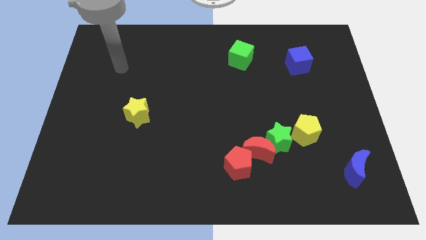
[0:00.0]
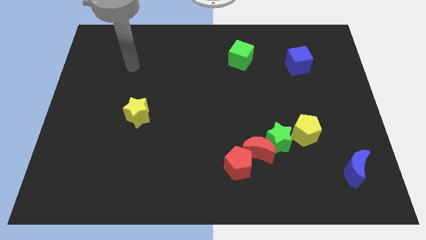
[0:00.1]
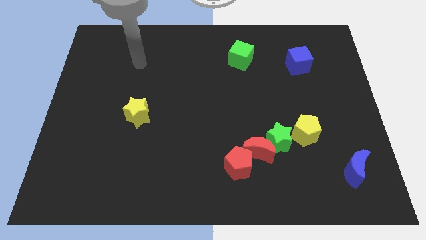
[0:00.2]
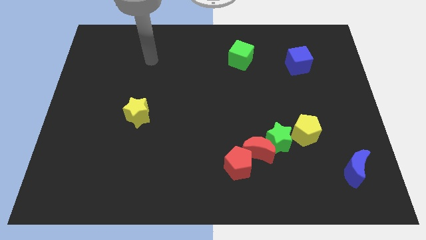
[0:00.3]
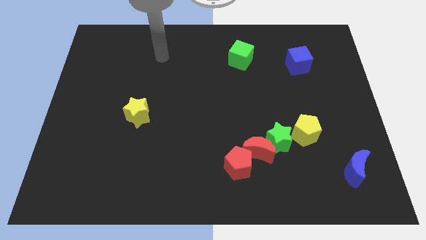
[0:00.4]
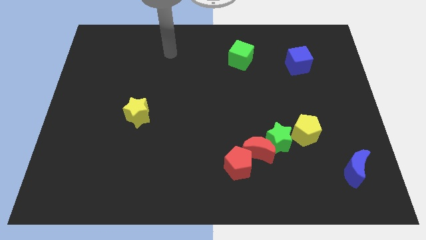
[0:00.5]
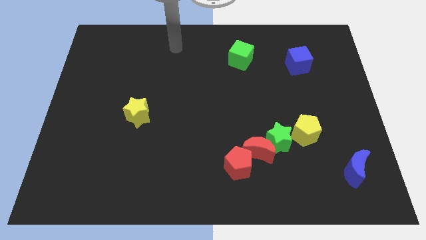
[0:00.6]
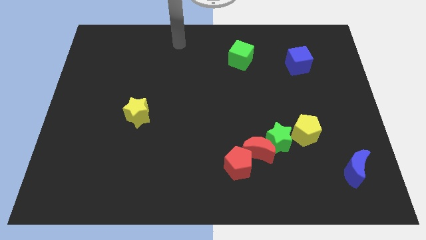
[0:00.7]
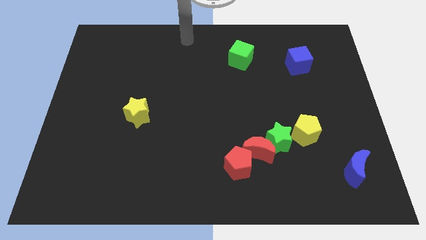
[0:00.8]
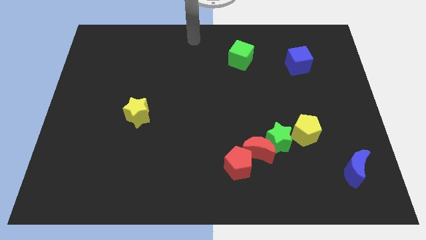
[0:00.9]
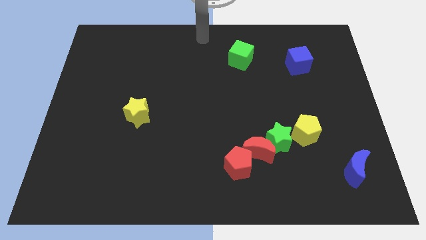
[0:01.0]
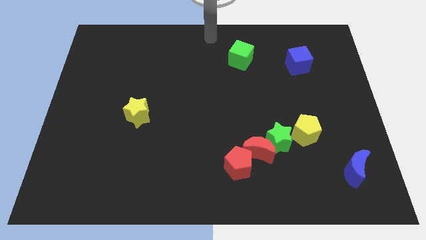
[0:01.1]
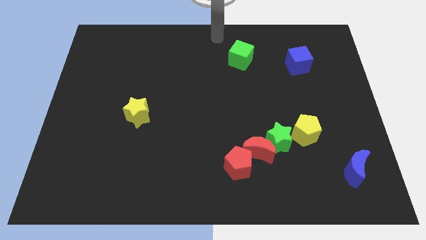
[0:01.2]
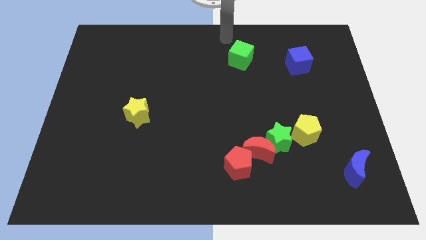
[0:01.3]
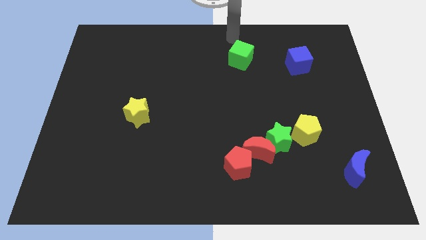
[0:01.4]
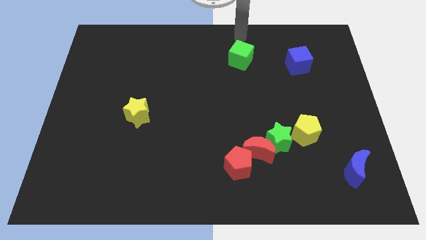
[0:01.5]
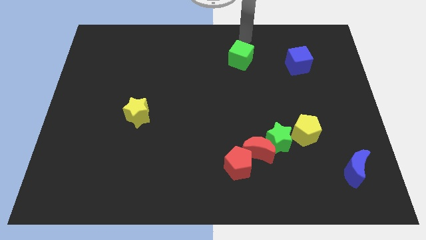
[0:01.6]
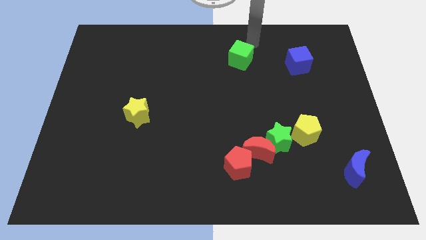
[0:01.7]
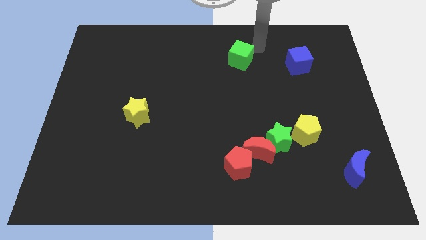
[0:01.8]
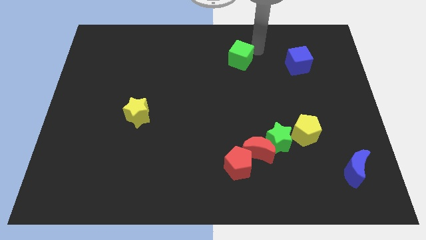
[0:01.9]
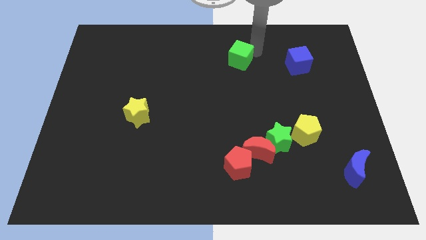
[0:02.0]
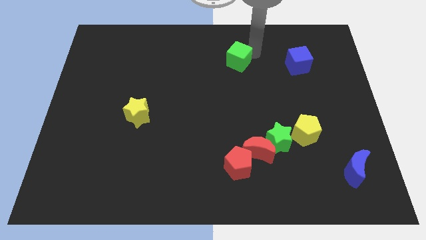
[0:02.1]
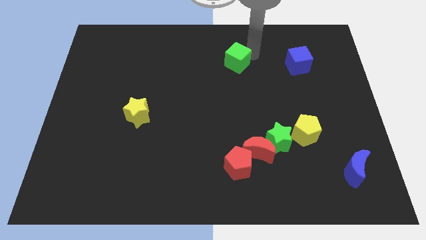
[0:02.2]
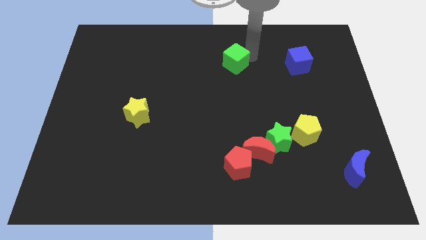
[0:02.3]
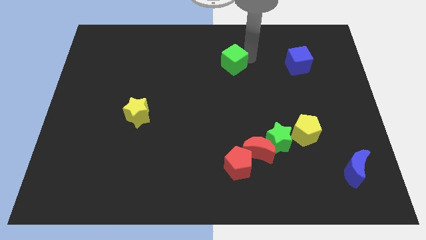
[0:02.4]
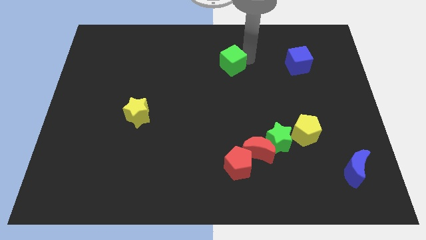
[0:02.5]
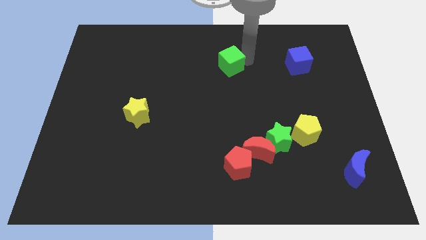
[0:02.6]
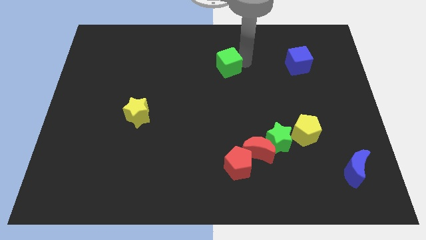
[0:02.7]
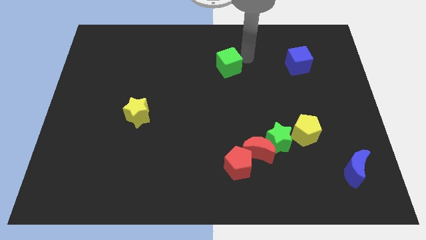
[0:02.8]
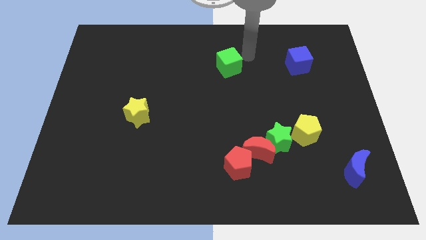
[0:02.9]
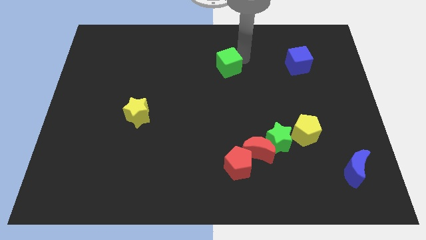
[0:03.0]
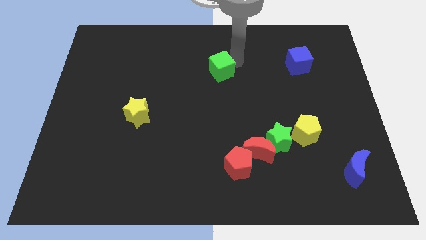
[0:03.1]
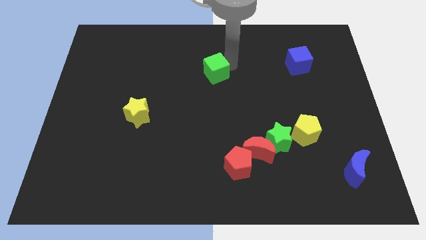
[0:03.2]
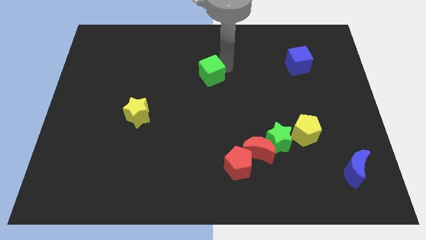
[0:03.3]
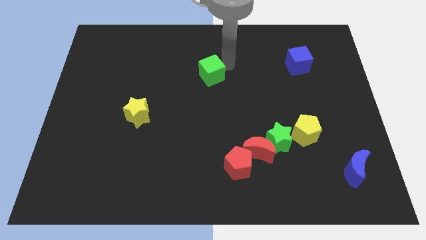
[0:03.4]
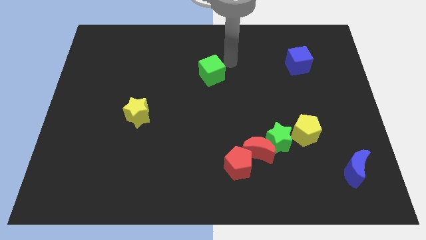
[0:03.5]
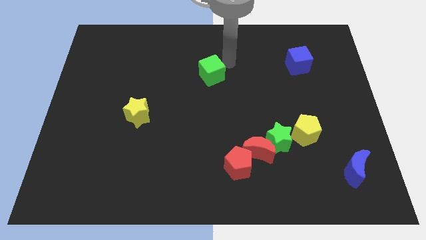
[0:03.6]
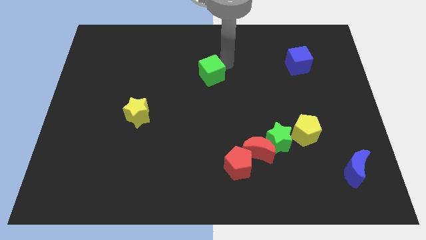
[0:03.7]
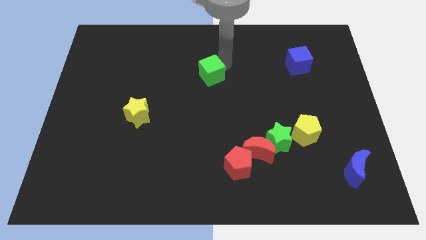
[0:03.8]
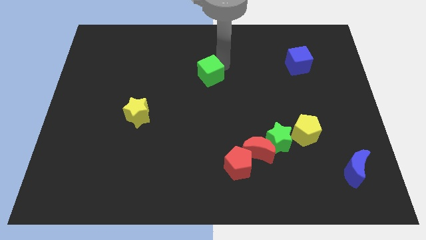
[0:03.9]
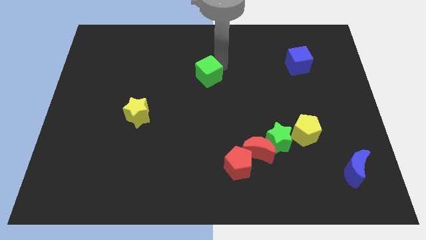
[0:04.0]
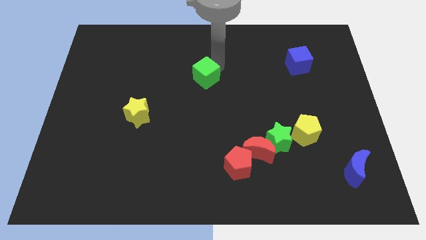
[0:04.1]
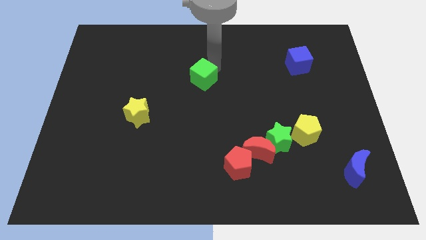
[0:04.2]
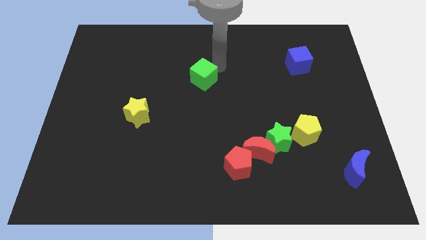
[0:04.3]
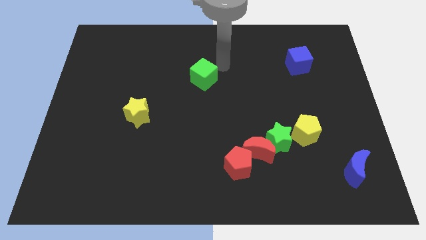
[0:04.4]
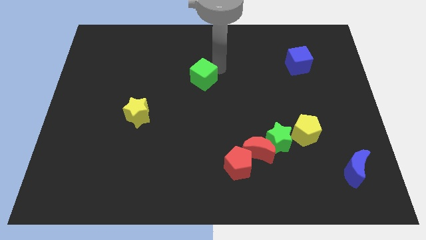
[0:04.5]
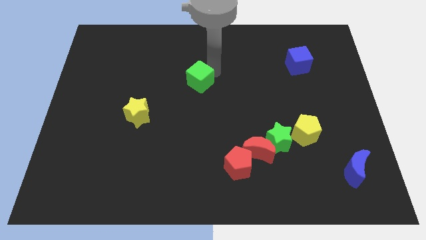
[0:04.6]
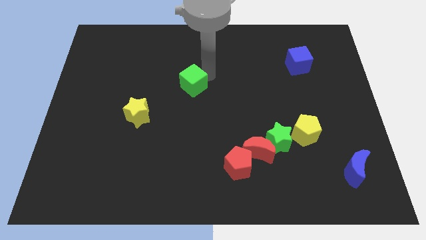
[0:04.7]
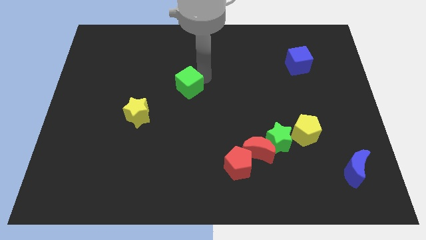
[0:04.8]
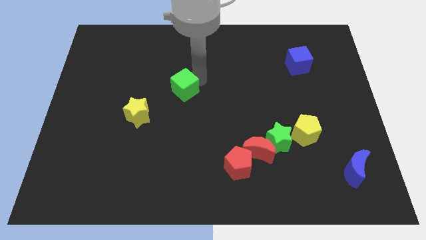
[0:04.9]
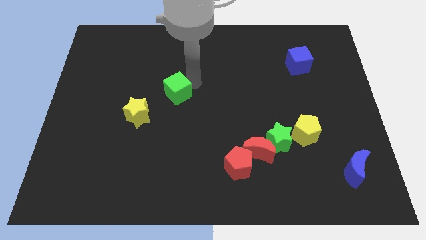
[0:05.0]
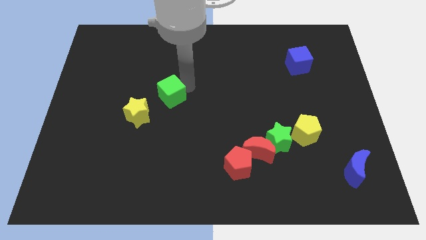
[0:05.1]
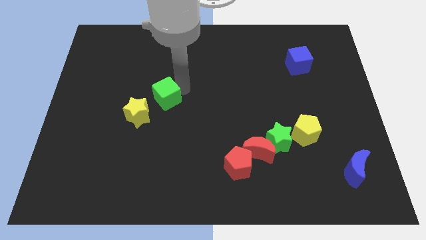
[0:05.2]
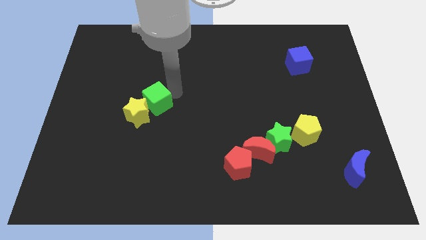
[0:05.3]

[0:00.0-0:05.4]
push the green cube close to the yellow star

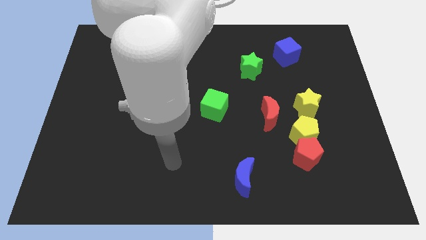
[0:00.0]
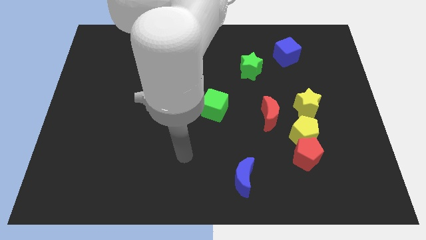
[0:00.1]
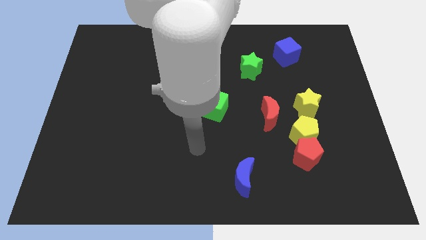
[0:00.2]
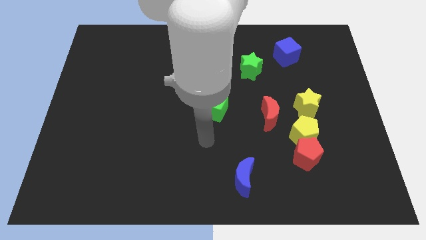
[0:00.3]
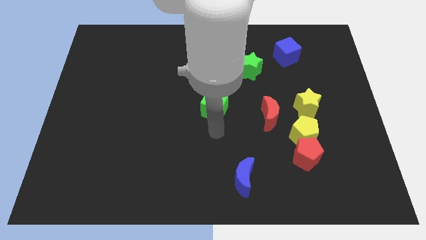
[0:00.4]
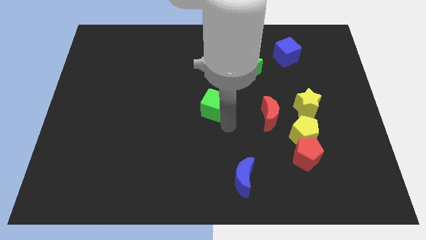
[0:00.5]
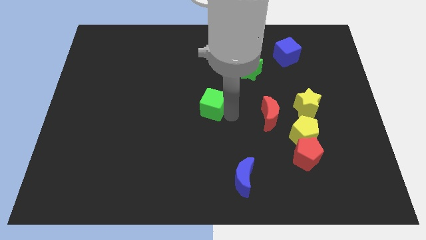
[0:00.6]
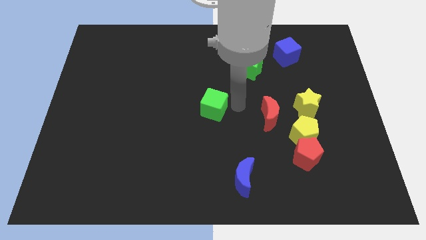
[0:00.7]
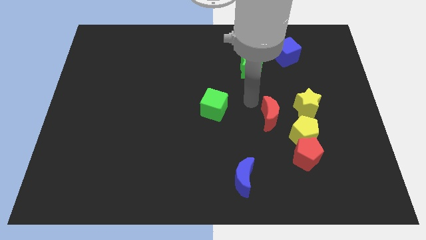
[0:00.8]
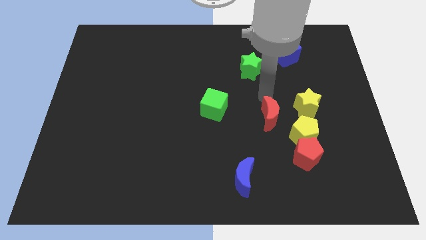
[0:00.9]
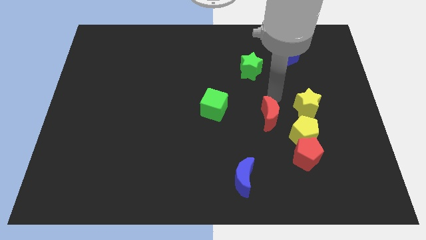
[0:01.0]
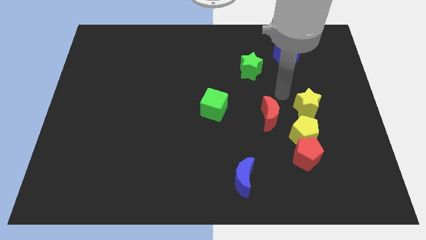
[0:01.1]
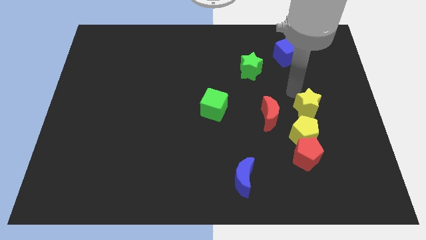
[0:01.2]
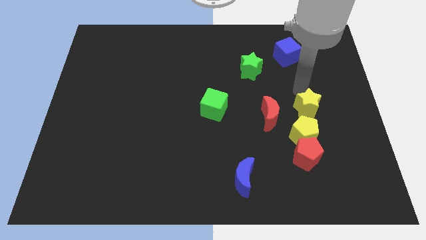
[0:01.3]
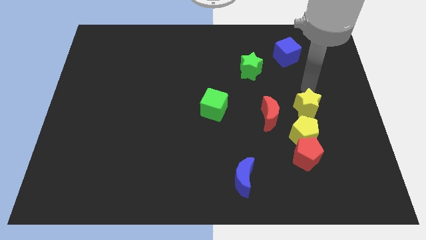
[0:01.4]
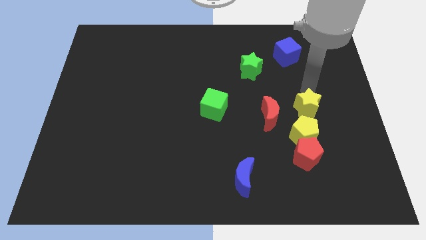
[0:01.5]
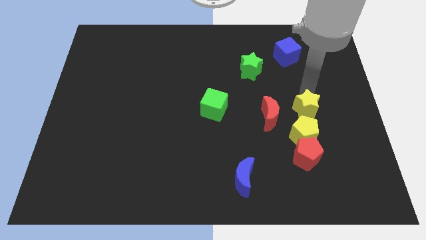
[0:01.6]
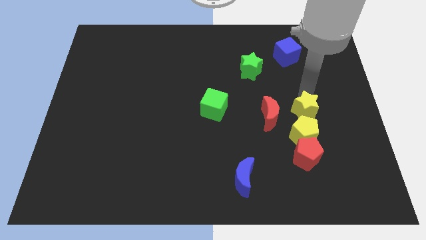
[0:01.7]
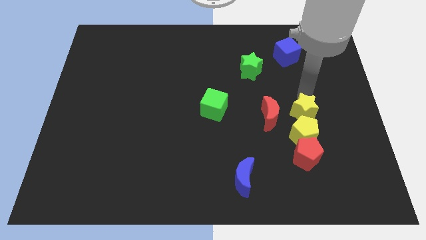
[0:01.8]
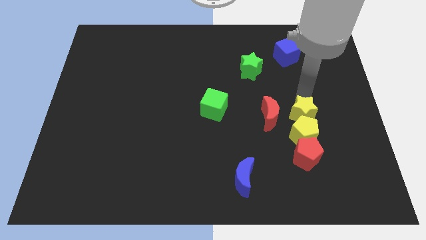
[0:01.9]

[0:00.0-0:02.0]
slide the yellow star towards the yellow pentagon

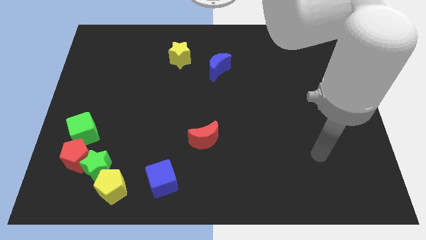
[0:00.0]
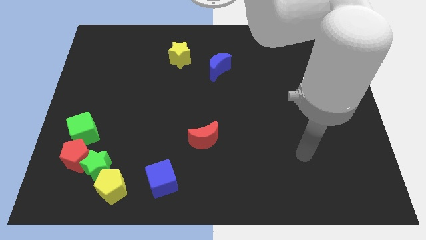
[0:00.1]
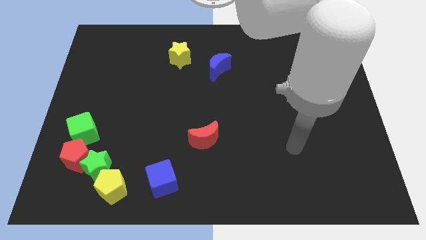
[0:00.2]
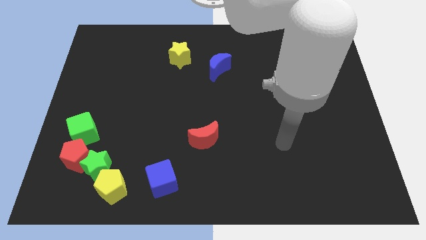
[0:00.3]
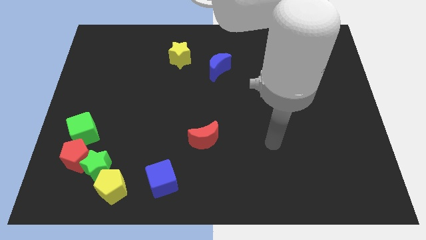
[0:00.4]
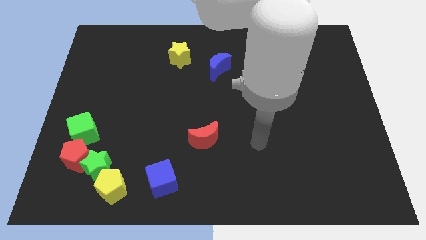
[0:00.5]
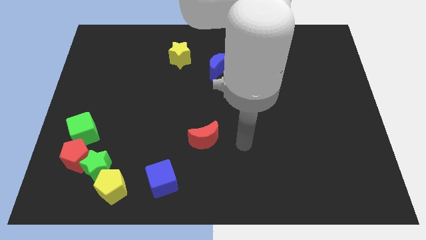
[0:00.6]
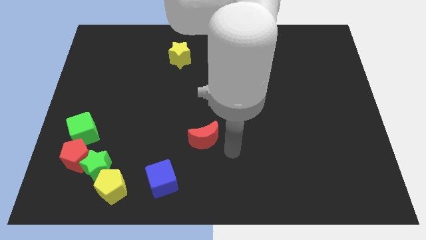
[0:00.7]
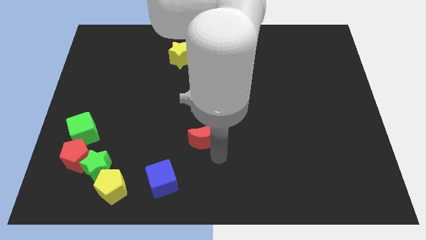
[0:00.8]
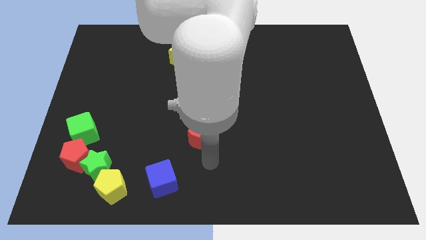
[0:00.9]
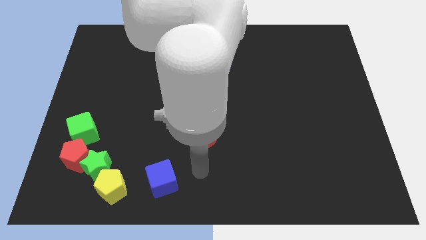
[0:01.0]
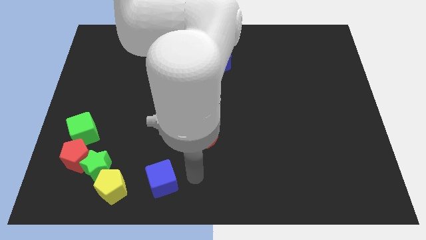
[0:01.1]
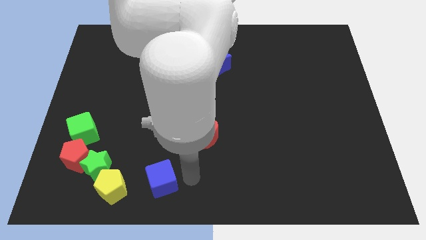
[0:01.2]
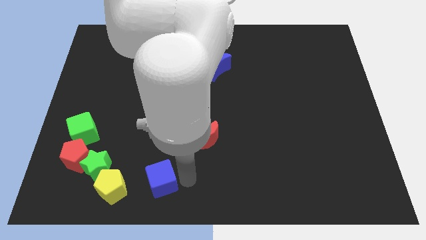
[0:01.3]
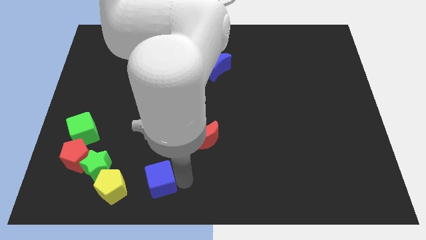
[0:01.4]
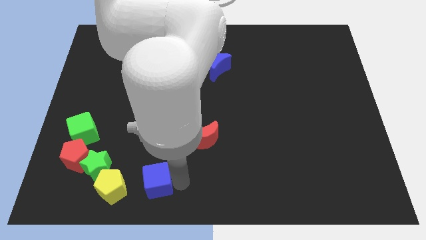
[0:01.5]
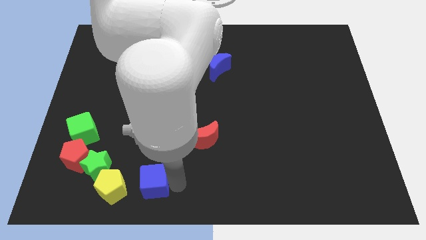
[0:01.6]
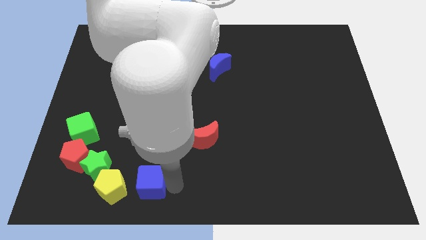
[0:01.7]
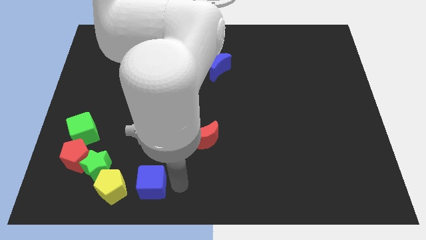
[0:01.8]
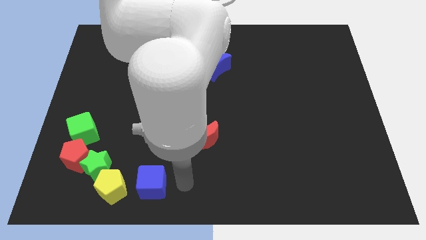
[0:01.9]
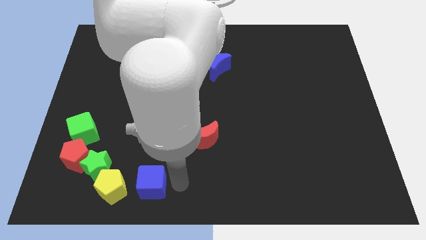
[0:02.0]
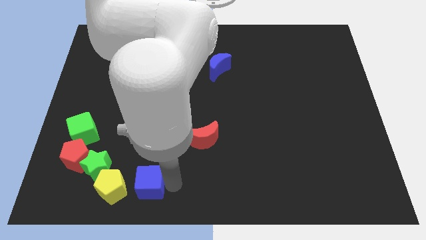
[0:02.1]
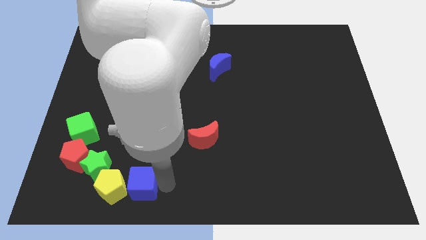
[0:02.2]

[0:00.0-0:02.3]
put the blue cube towards the yellow pentagon
